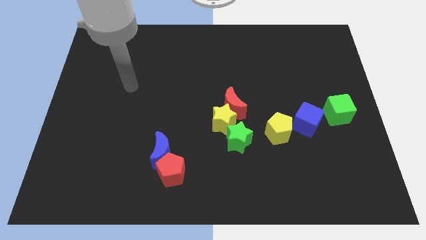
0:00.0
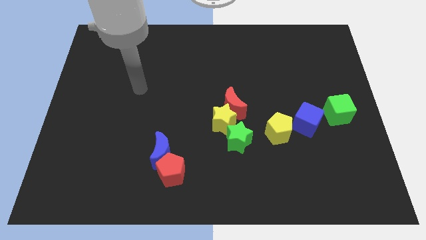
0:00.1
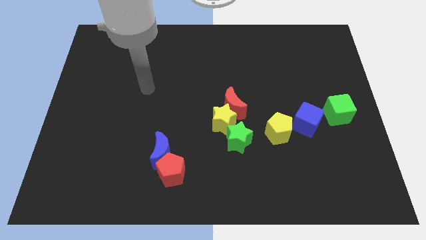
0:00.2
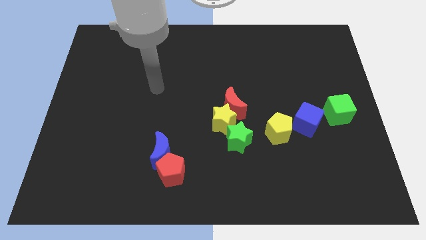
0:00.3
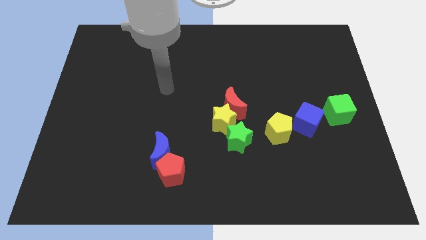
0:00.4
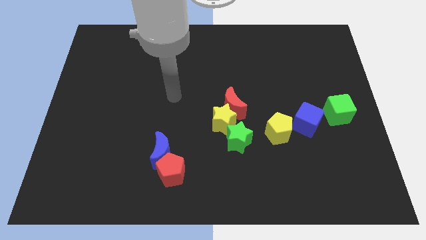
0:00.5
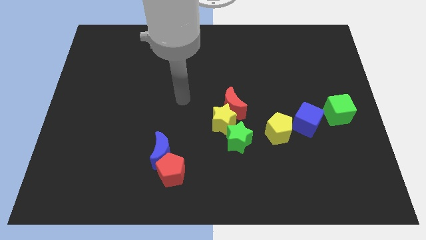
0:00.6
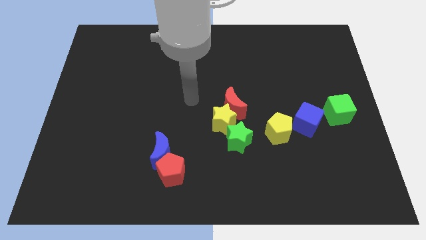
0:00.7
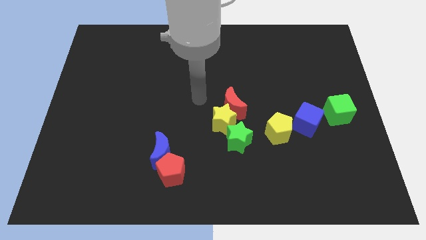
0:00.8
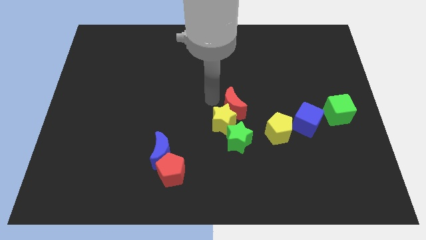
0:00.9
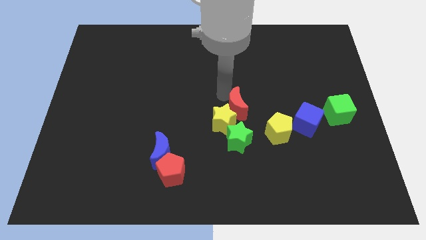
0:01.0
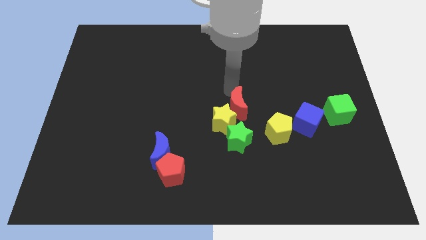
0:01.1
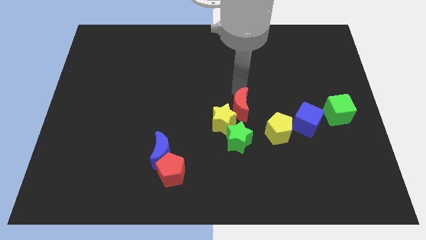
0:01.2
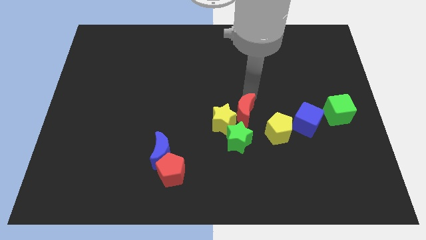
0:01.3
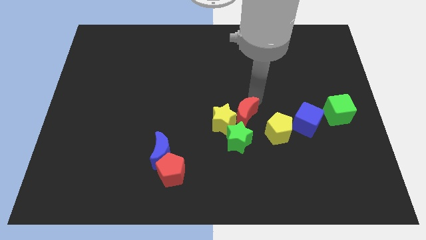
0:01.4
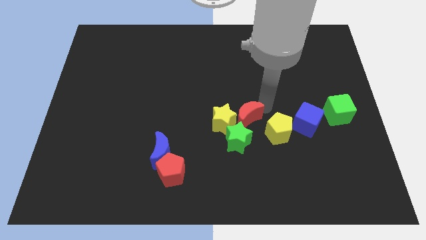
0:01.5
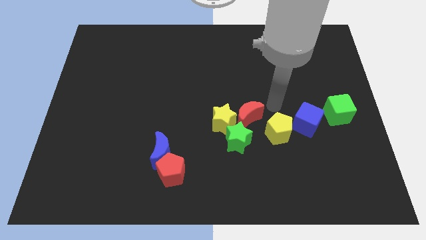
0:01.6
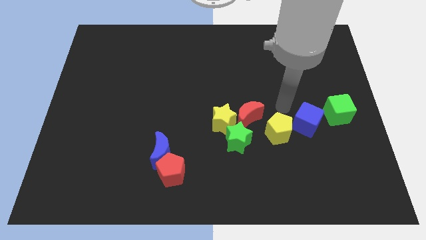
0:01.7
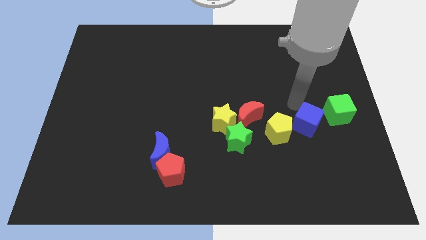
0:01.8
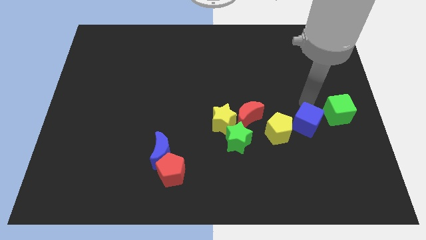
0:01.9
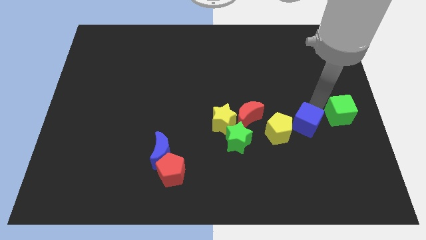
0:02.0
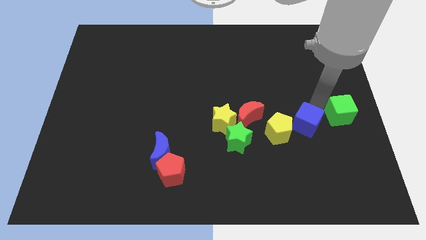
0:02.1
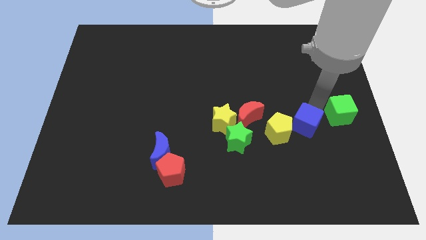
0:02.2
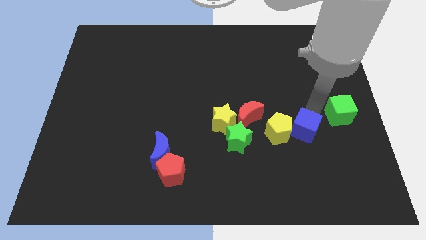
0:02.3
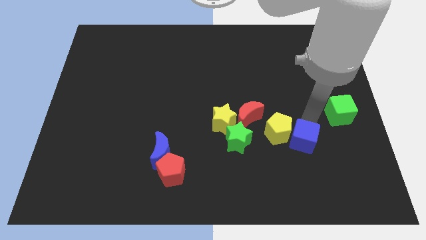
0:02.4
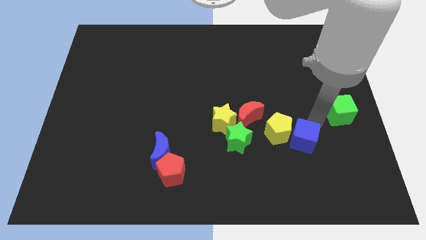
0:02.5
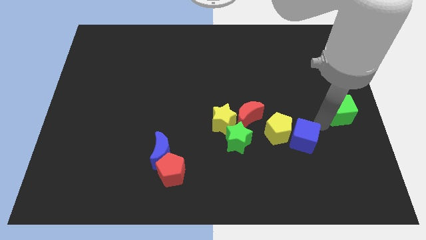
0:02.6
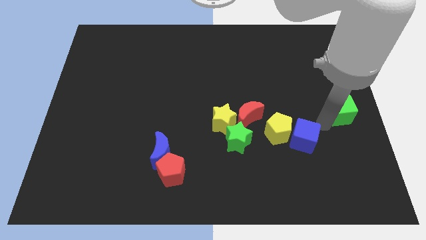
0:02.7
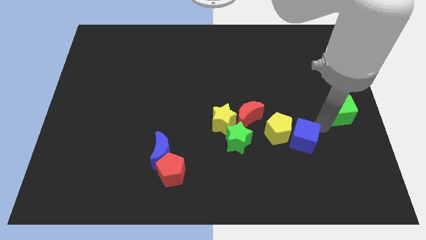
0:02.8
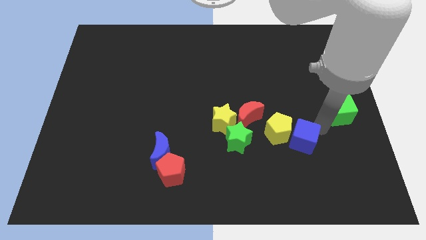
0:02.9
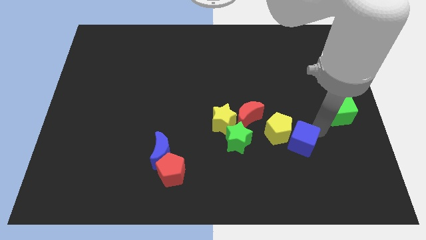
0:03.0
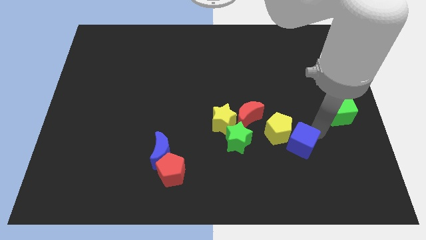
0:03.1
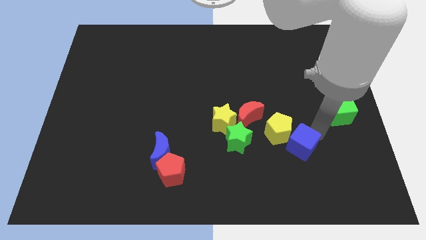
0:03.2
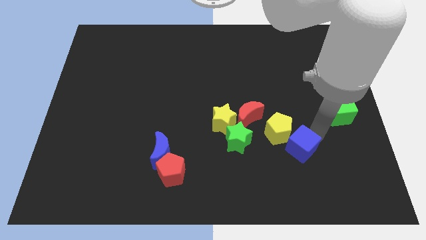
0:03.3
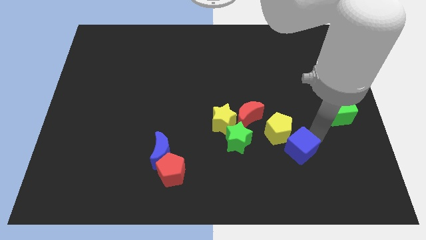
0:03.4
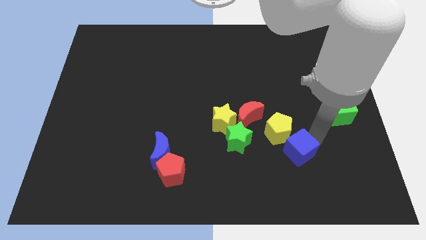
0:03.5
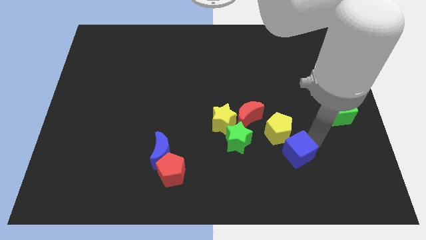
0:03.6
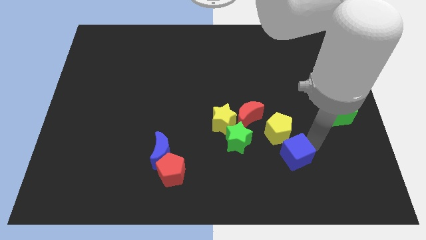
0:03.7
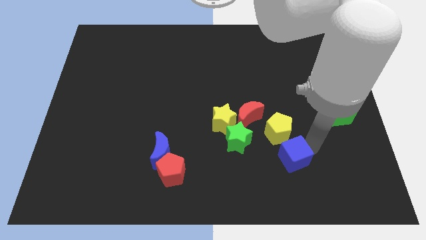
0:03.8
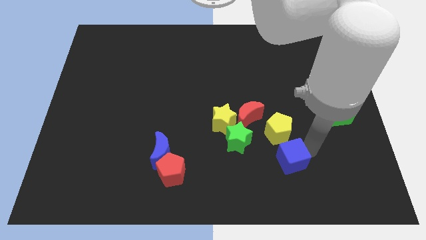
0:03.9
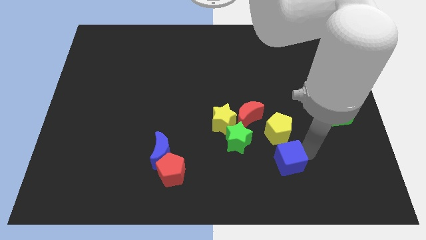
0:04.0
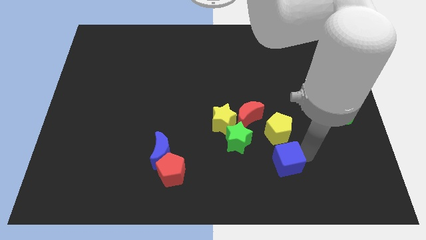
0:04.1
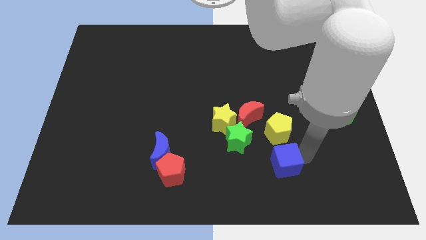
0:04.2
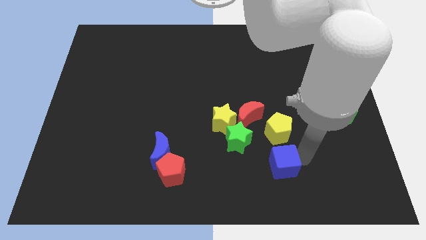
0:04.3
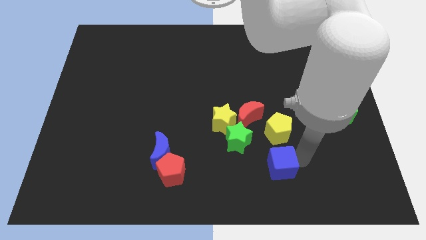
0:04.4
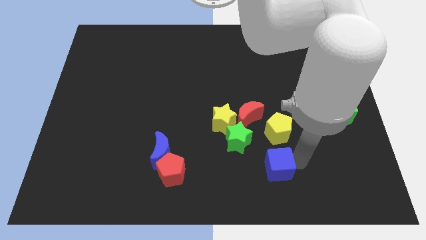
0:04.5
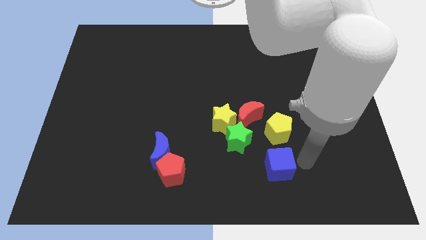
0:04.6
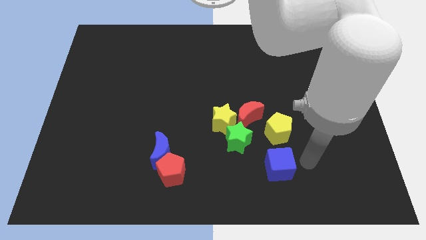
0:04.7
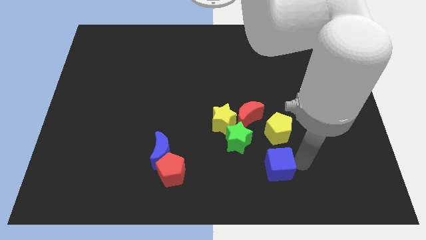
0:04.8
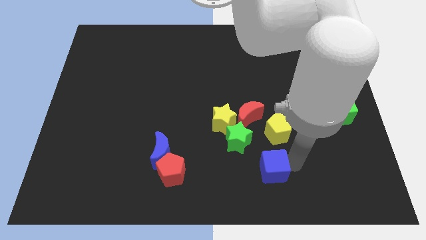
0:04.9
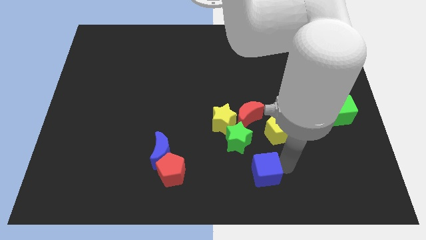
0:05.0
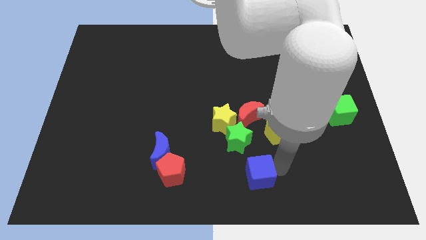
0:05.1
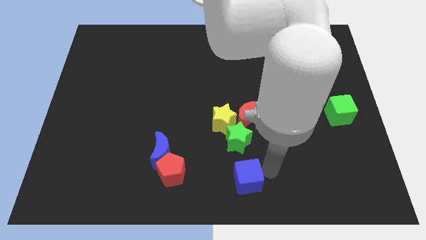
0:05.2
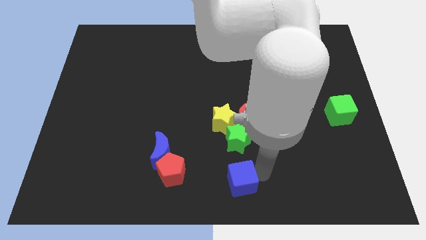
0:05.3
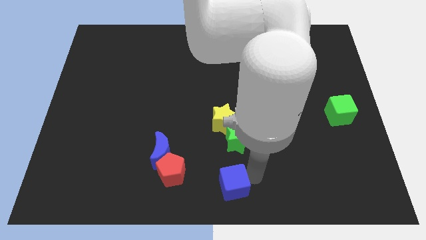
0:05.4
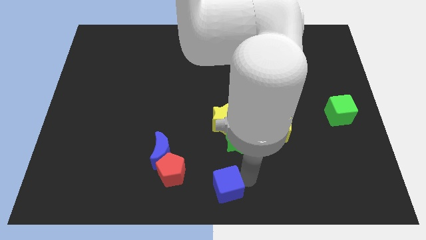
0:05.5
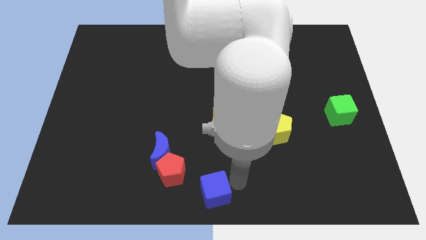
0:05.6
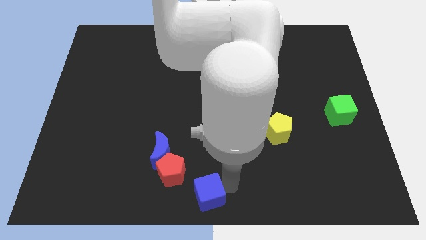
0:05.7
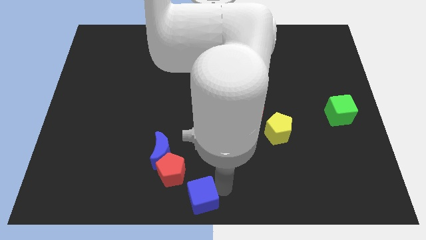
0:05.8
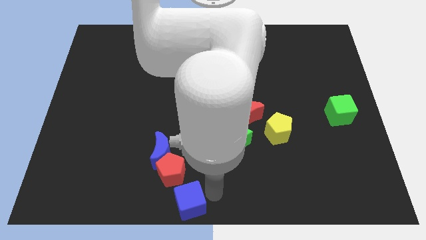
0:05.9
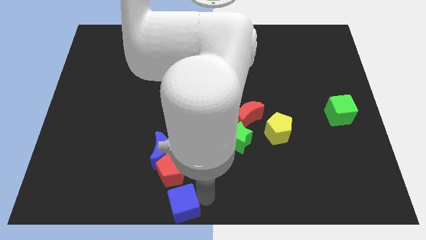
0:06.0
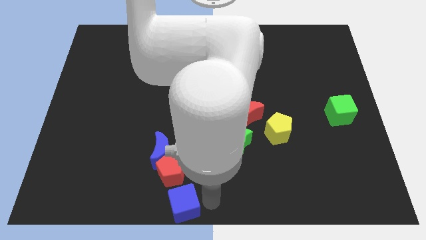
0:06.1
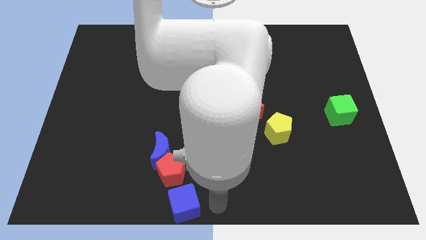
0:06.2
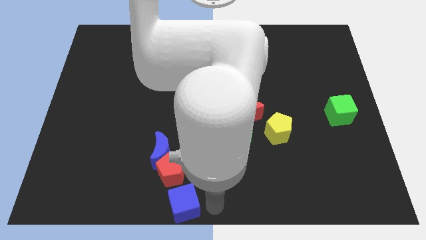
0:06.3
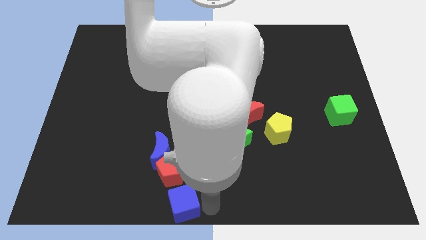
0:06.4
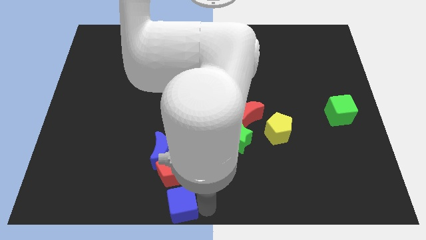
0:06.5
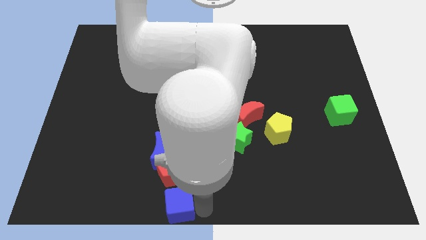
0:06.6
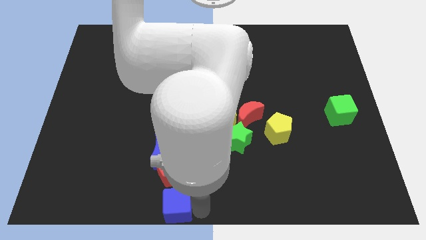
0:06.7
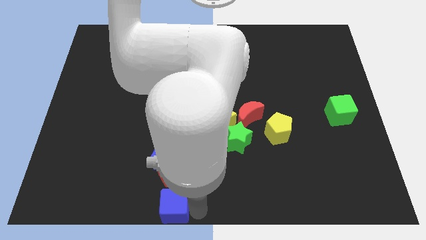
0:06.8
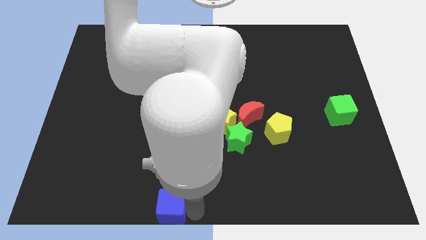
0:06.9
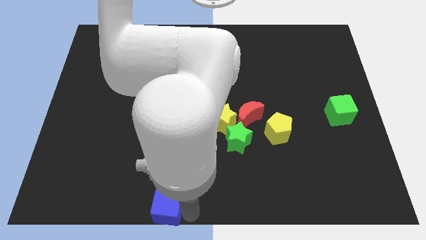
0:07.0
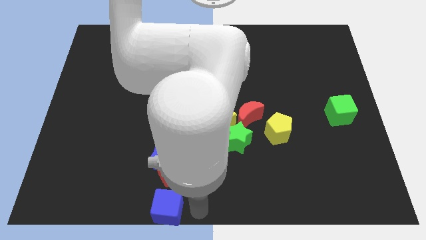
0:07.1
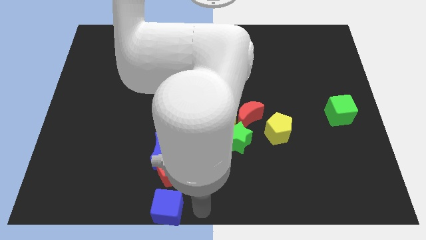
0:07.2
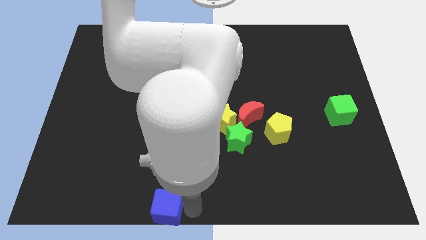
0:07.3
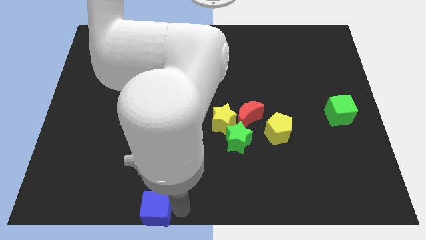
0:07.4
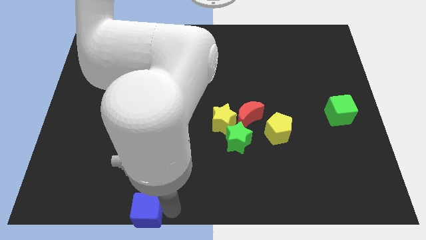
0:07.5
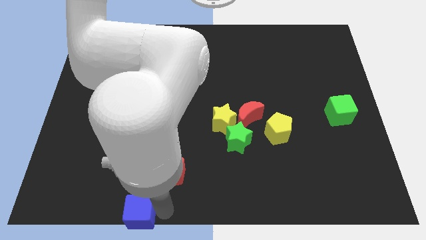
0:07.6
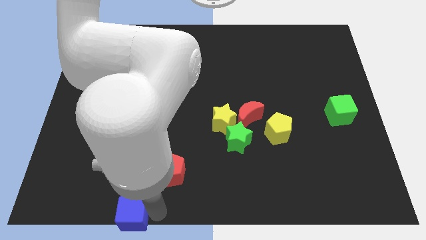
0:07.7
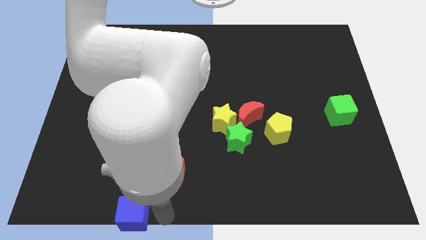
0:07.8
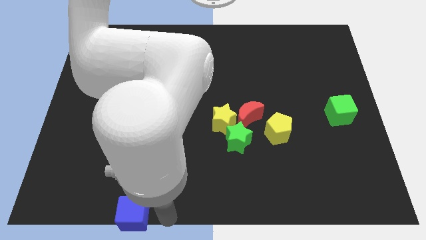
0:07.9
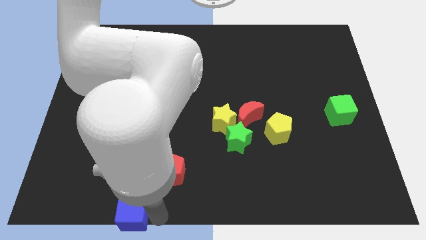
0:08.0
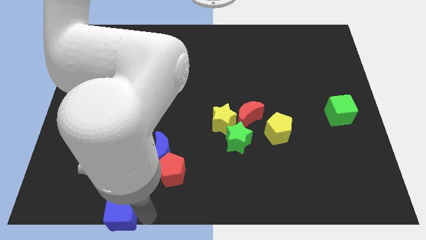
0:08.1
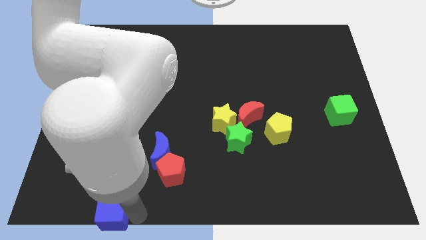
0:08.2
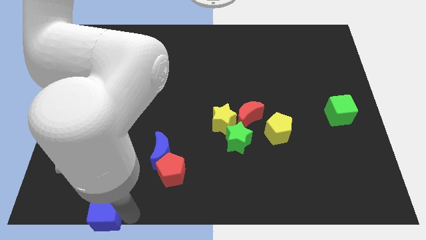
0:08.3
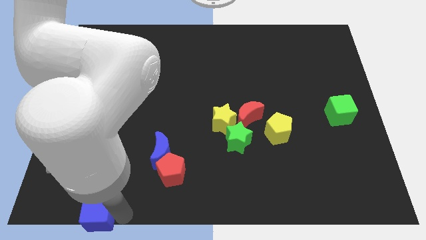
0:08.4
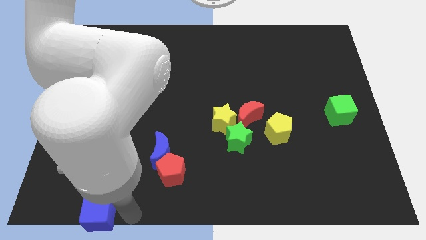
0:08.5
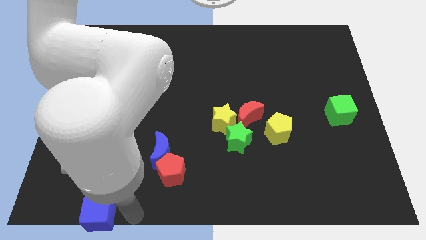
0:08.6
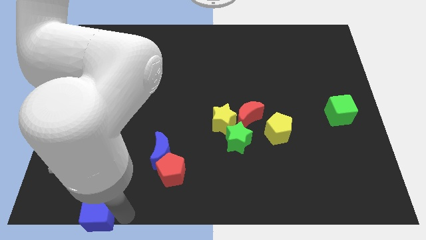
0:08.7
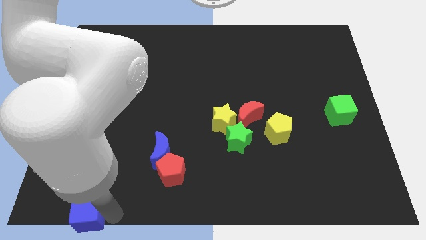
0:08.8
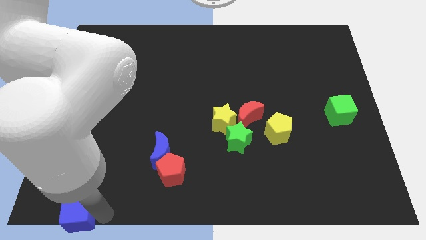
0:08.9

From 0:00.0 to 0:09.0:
slide the blue cube to the lower left corner
